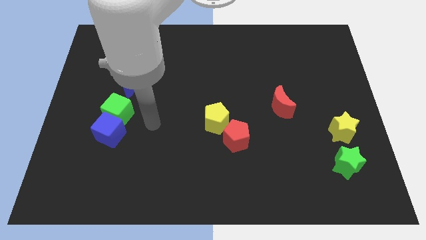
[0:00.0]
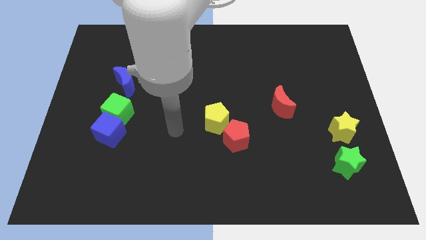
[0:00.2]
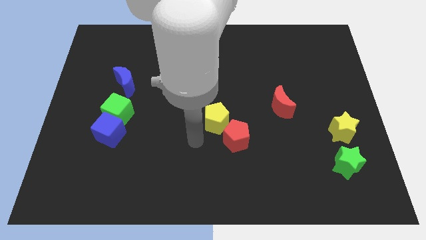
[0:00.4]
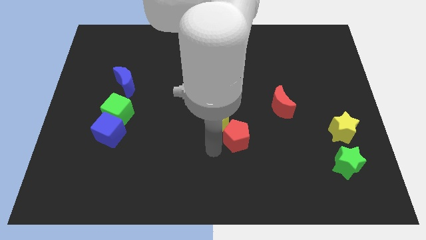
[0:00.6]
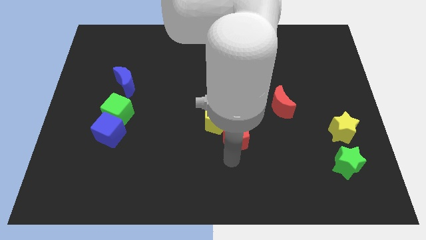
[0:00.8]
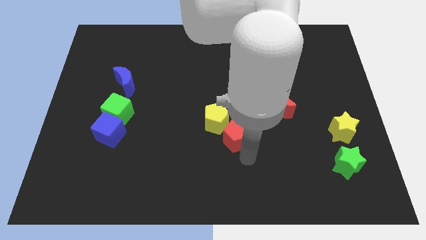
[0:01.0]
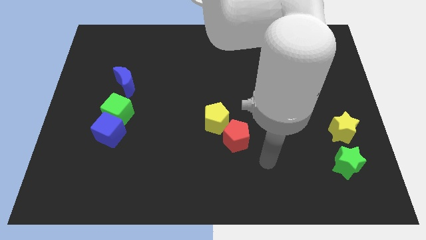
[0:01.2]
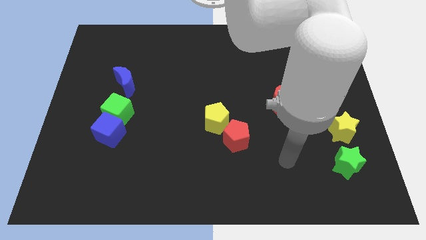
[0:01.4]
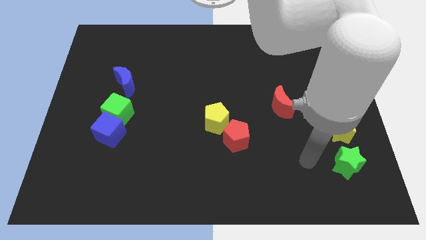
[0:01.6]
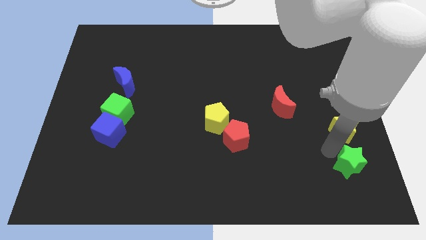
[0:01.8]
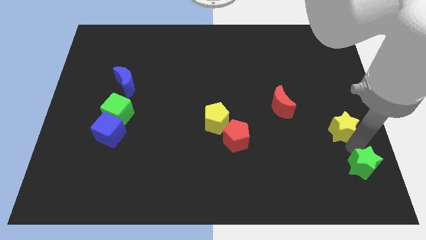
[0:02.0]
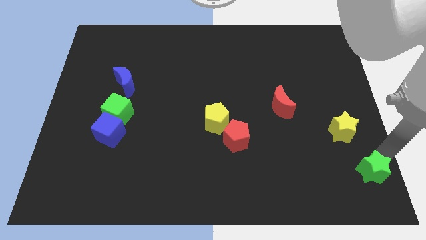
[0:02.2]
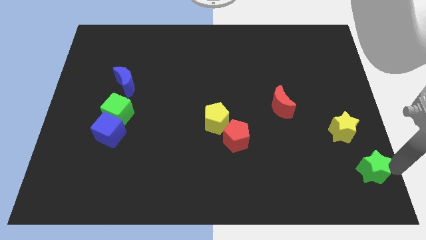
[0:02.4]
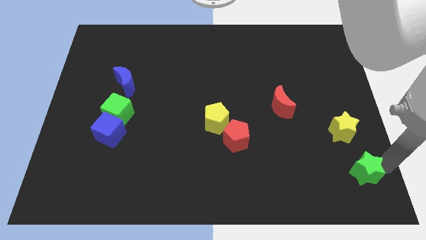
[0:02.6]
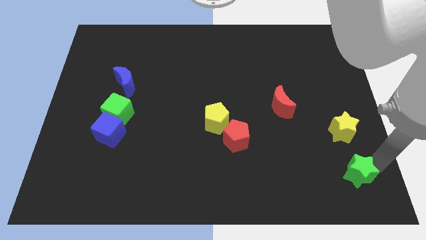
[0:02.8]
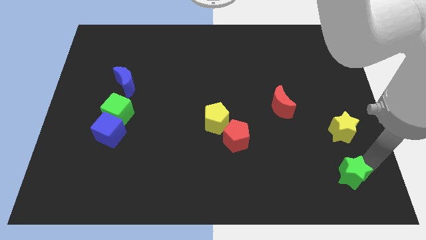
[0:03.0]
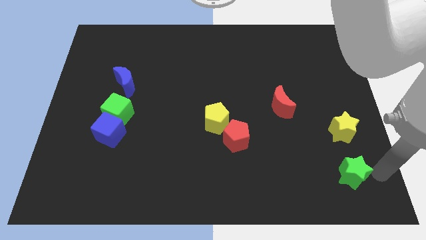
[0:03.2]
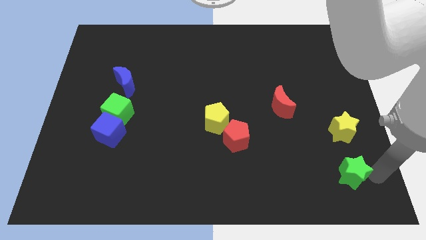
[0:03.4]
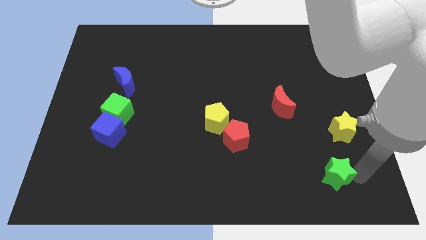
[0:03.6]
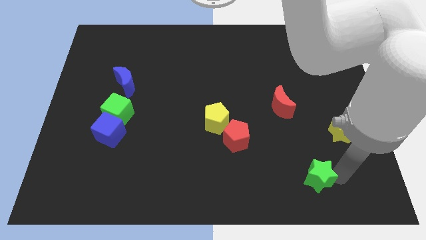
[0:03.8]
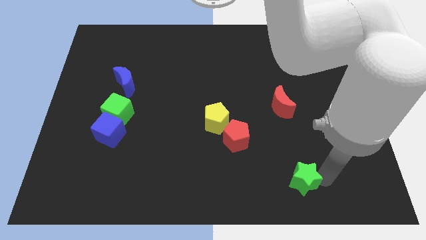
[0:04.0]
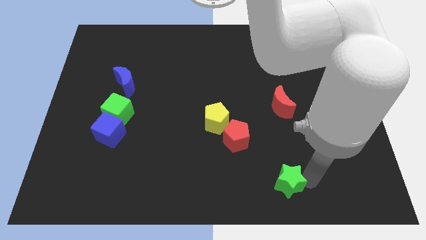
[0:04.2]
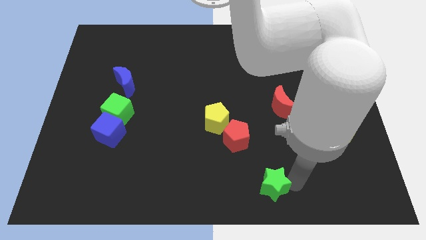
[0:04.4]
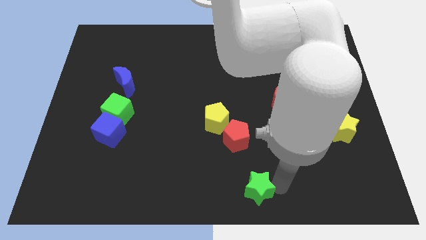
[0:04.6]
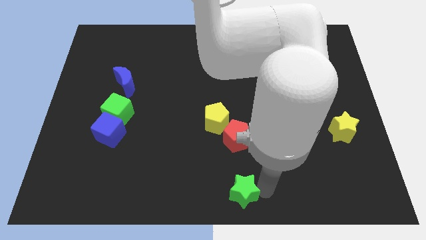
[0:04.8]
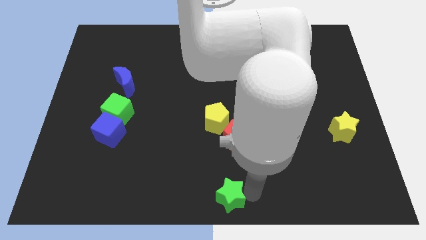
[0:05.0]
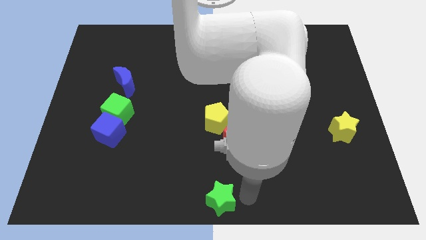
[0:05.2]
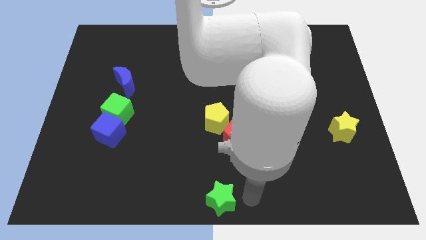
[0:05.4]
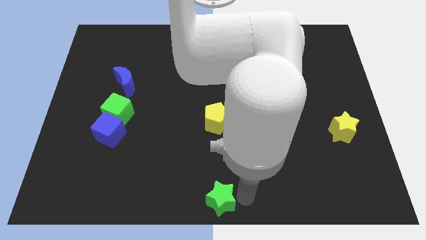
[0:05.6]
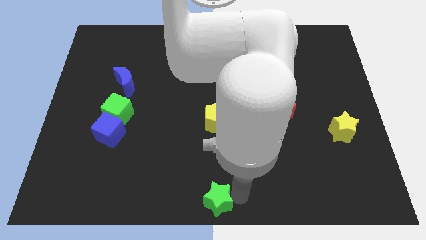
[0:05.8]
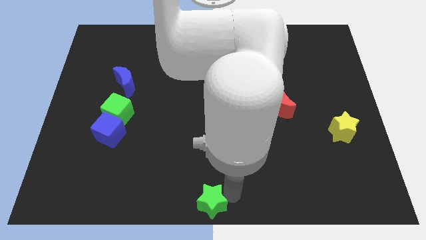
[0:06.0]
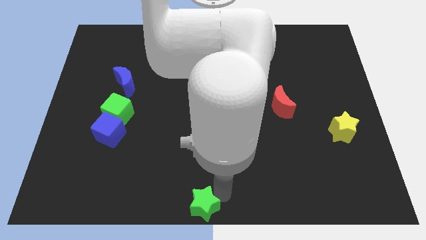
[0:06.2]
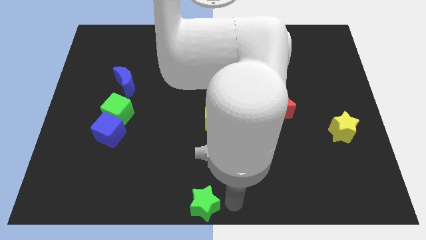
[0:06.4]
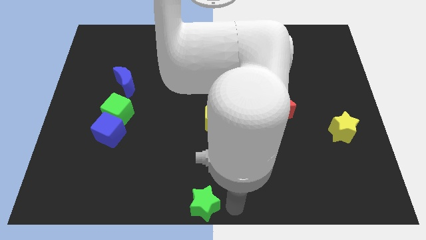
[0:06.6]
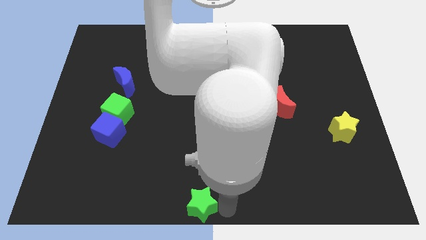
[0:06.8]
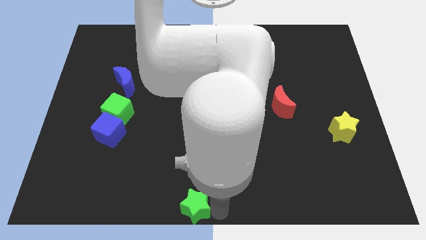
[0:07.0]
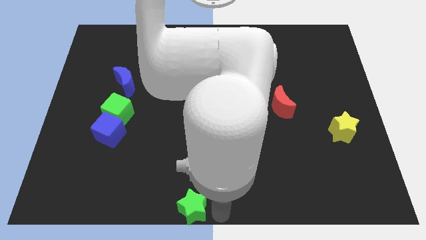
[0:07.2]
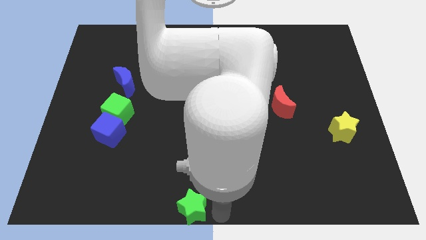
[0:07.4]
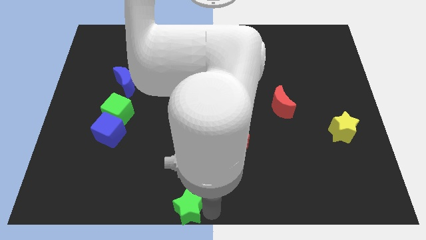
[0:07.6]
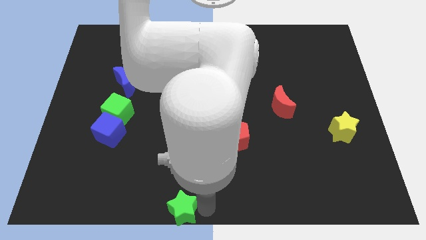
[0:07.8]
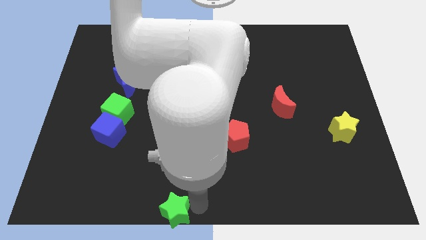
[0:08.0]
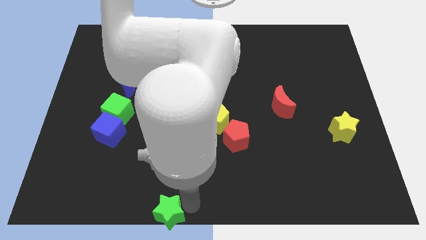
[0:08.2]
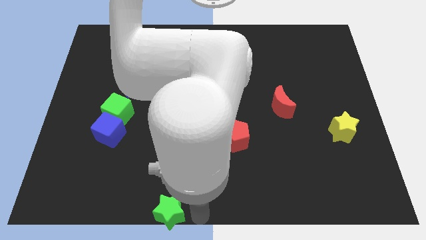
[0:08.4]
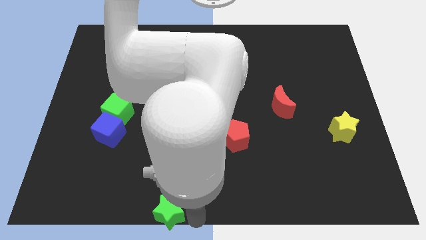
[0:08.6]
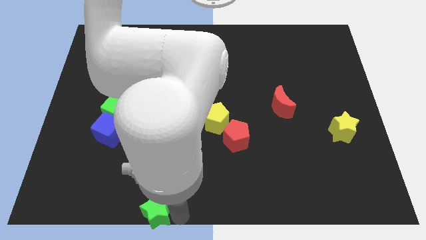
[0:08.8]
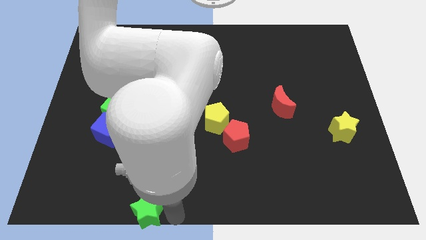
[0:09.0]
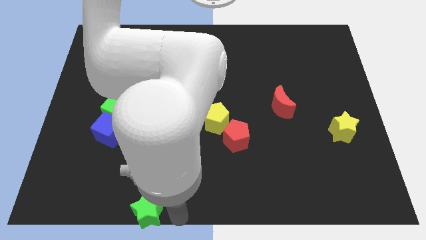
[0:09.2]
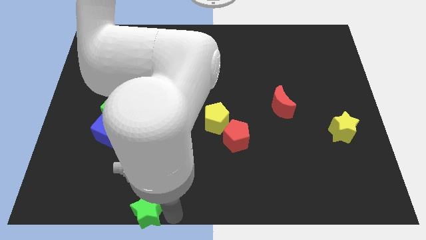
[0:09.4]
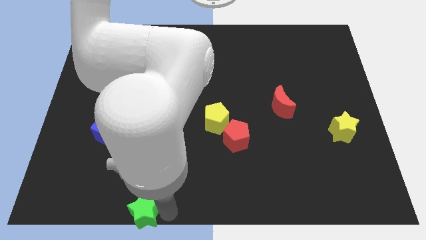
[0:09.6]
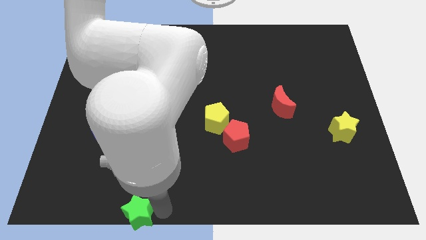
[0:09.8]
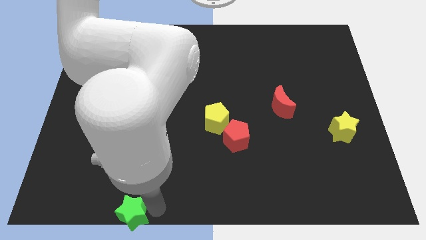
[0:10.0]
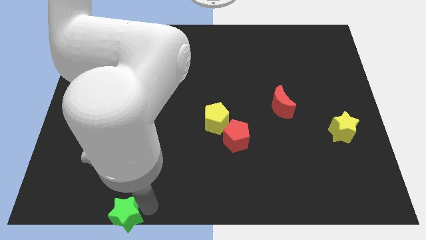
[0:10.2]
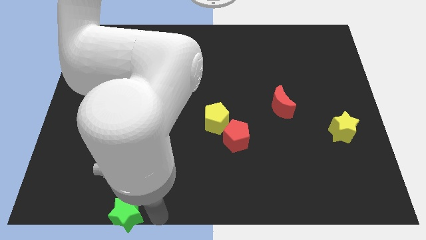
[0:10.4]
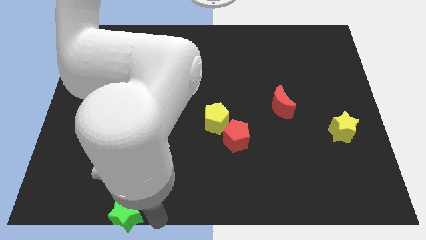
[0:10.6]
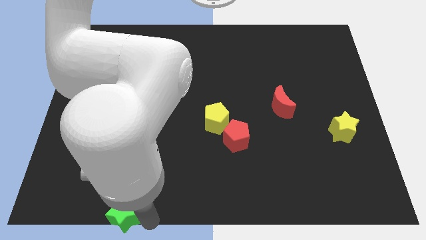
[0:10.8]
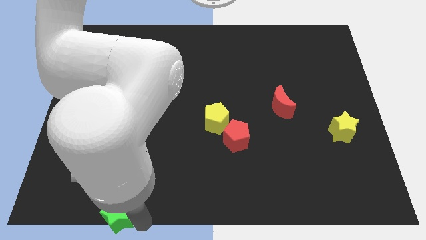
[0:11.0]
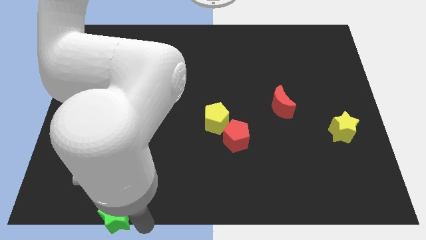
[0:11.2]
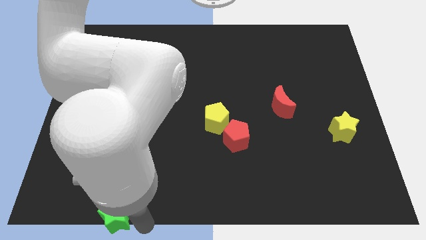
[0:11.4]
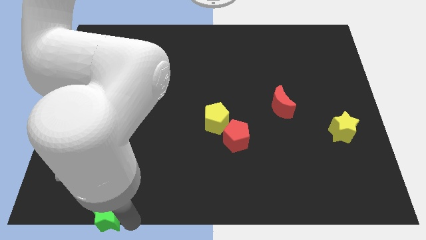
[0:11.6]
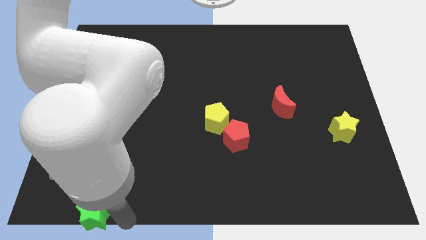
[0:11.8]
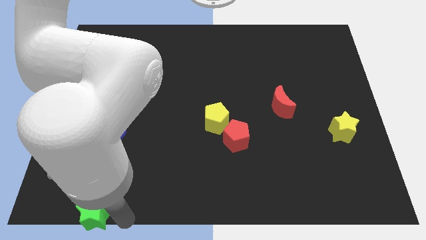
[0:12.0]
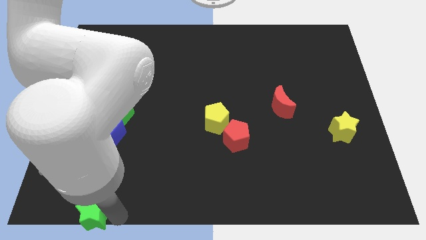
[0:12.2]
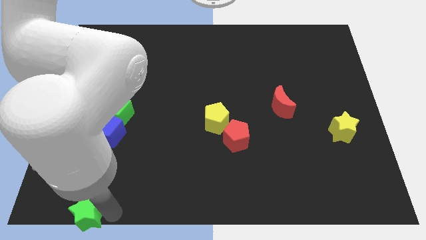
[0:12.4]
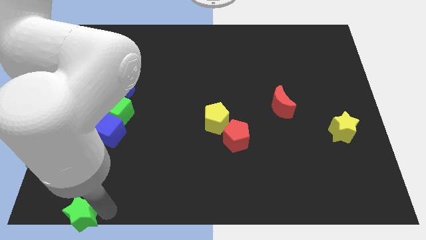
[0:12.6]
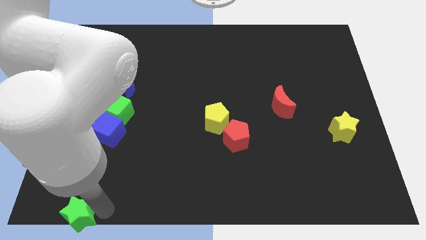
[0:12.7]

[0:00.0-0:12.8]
put the green star to the bottom left of the board
